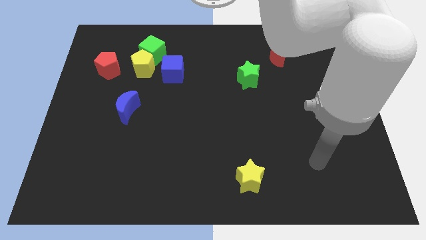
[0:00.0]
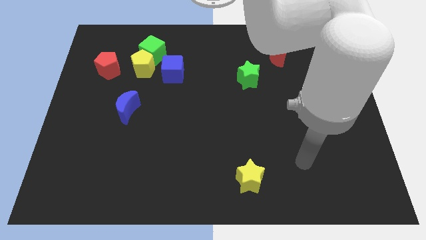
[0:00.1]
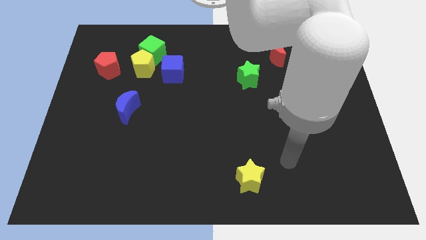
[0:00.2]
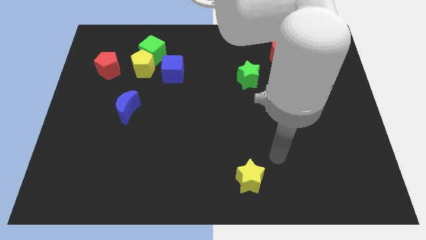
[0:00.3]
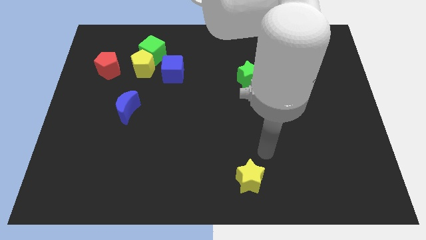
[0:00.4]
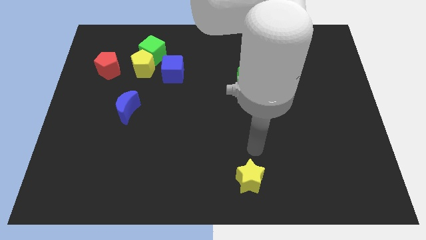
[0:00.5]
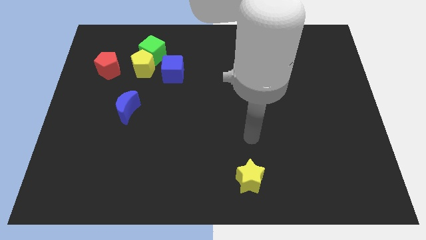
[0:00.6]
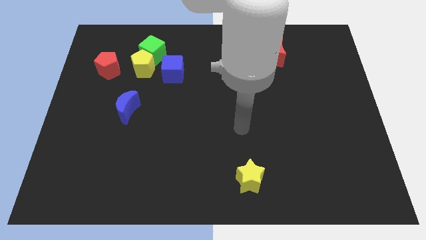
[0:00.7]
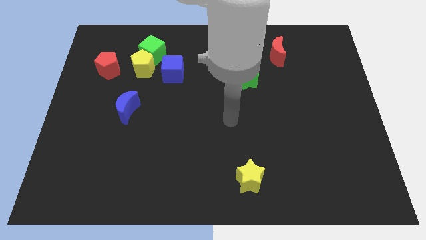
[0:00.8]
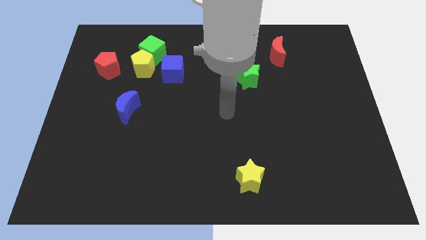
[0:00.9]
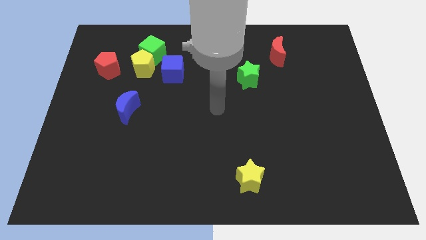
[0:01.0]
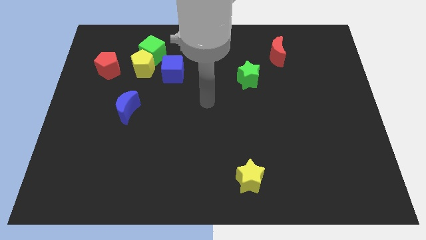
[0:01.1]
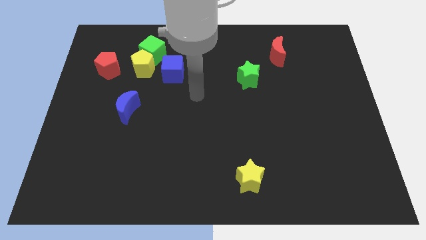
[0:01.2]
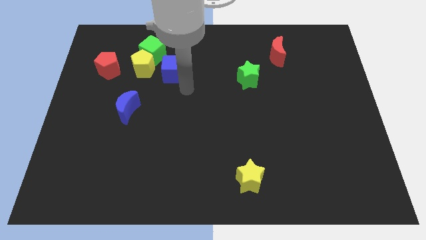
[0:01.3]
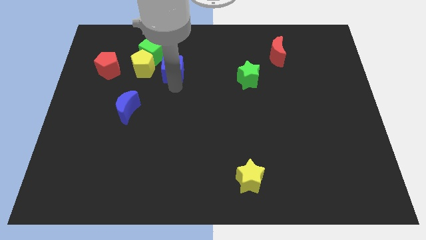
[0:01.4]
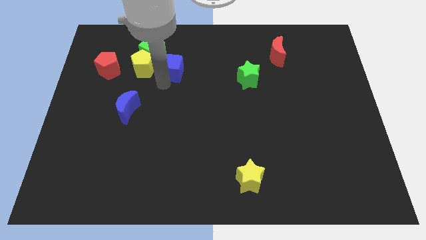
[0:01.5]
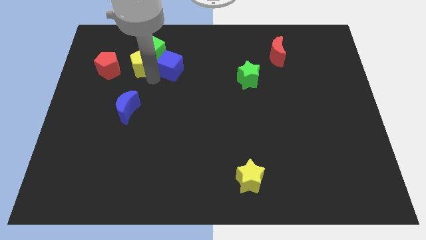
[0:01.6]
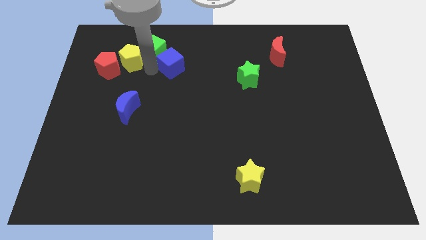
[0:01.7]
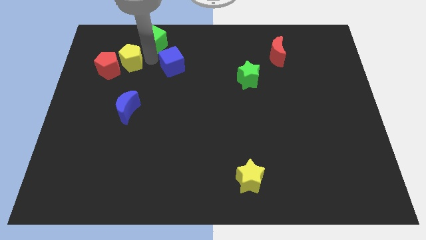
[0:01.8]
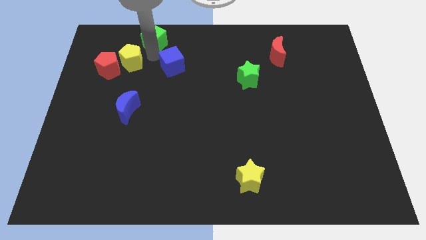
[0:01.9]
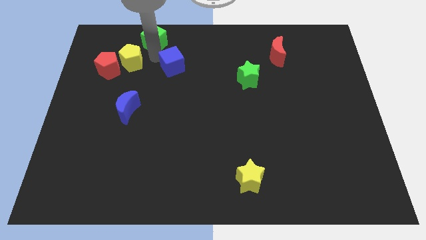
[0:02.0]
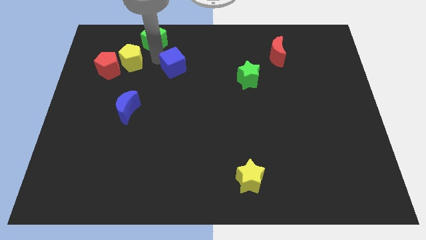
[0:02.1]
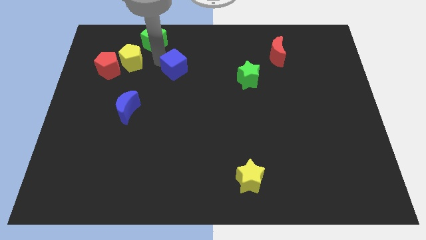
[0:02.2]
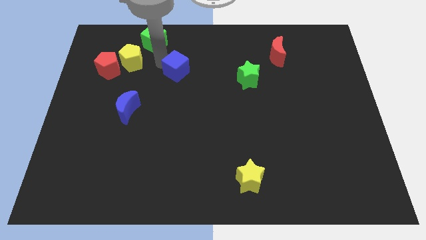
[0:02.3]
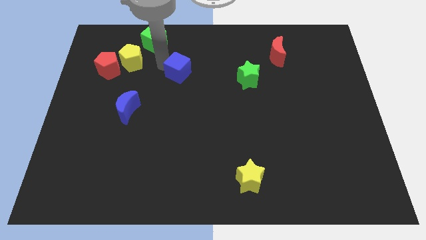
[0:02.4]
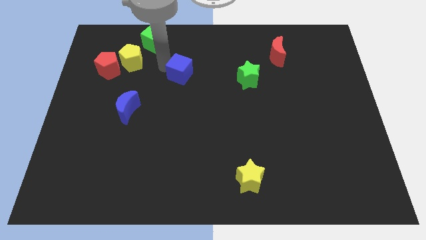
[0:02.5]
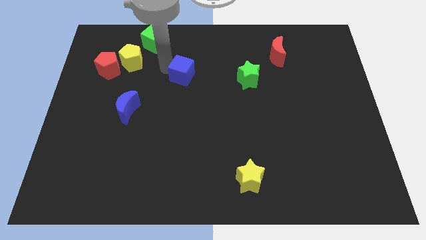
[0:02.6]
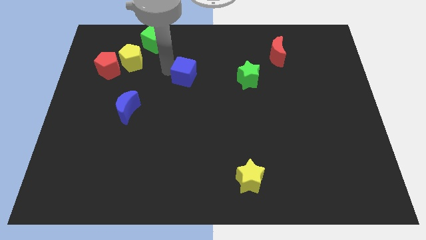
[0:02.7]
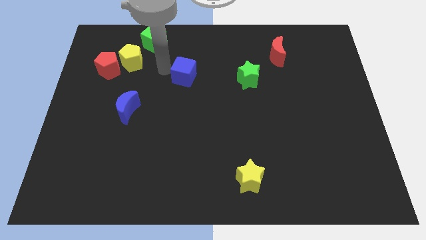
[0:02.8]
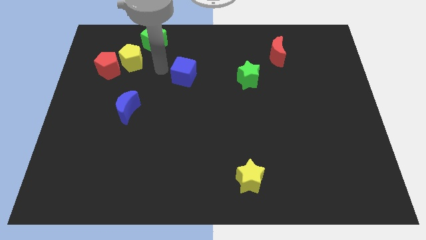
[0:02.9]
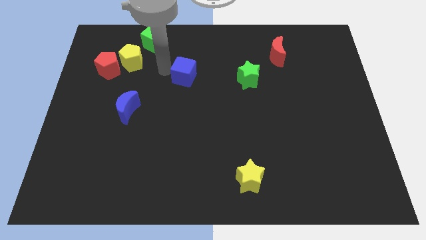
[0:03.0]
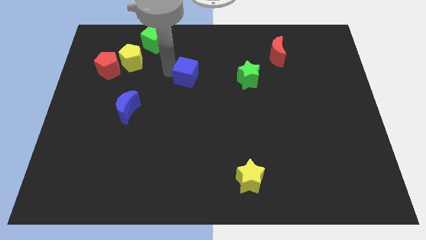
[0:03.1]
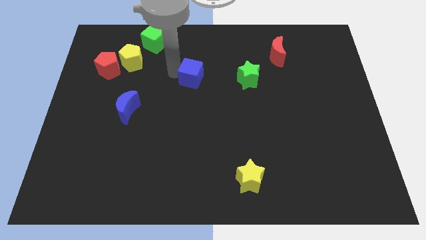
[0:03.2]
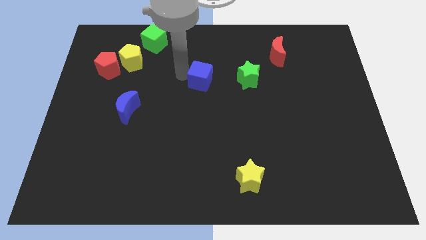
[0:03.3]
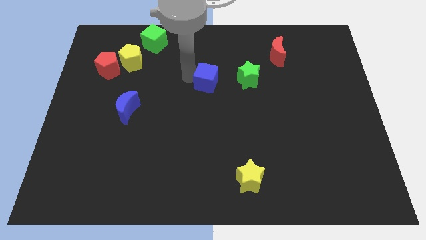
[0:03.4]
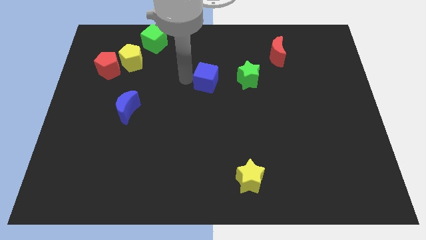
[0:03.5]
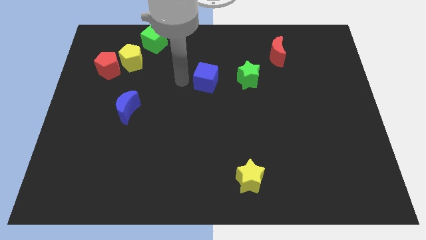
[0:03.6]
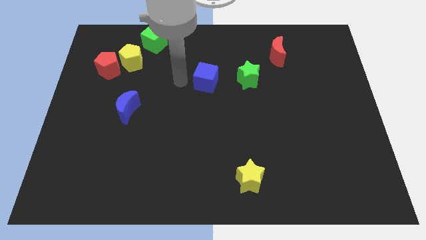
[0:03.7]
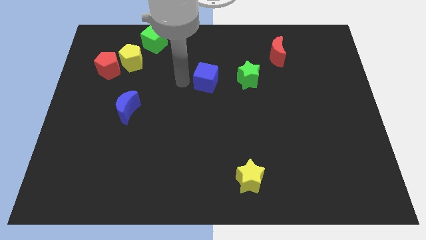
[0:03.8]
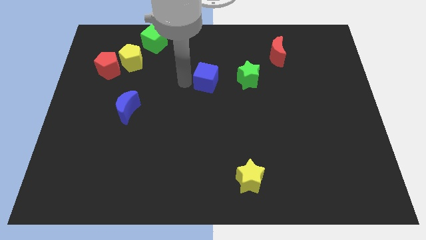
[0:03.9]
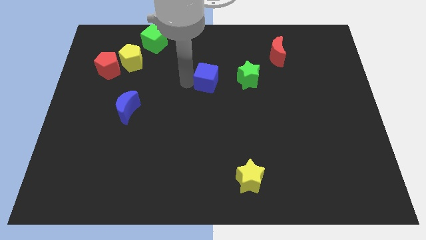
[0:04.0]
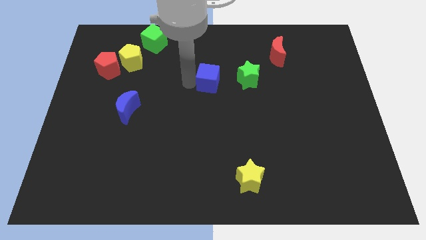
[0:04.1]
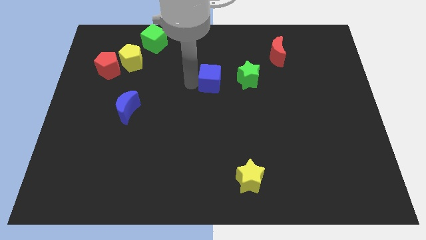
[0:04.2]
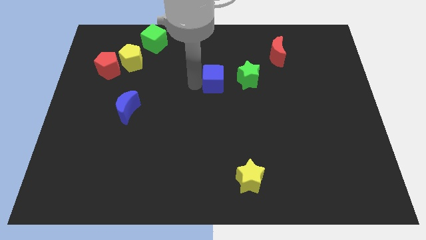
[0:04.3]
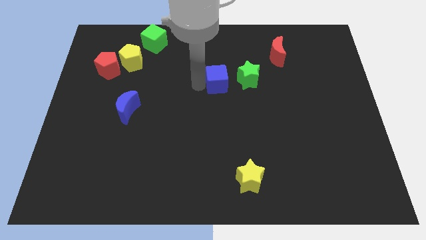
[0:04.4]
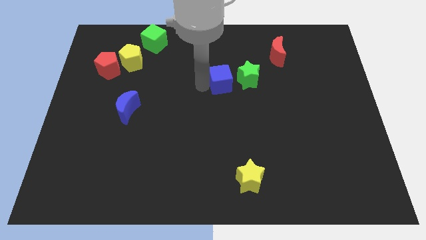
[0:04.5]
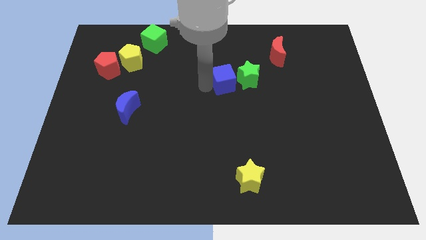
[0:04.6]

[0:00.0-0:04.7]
move the blue cube to the green star

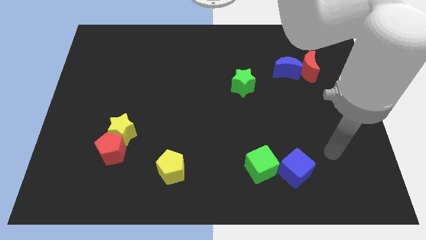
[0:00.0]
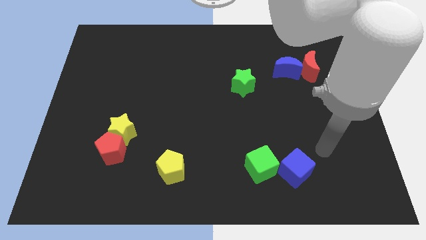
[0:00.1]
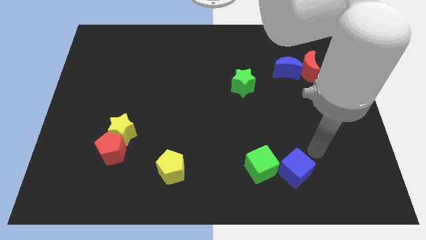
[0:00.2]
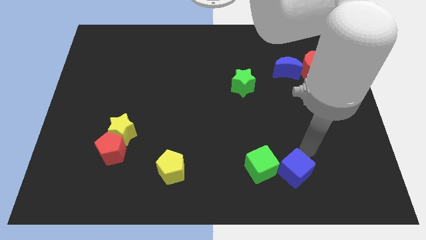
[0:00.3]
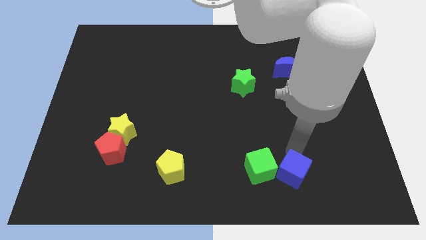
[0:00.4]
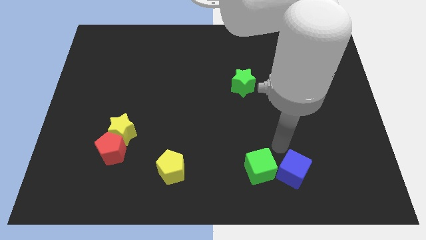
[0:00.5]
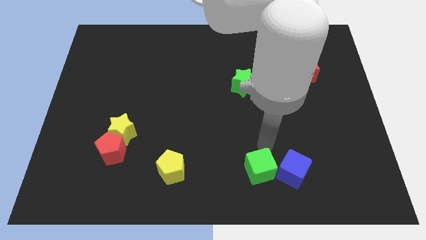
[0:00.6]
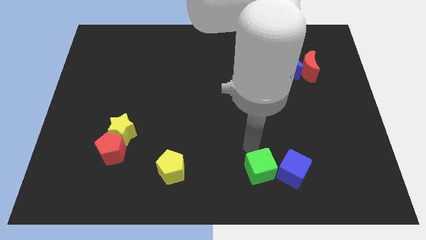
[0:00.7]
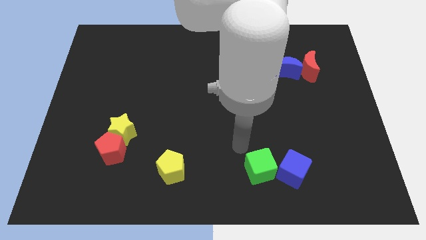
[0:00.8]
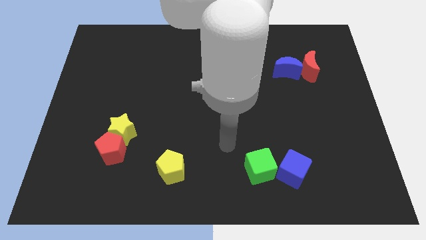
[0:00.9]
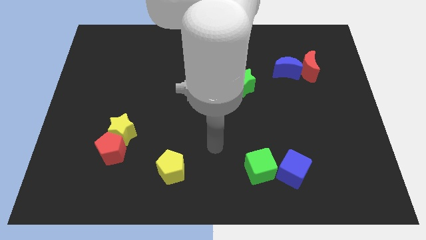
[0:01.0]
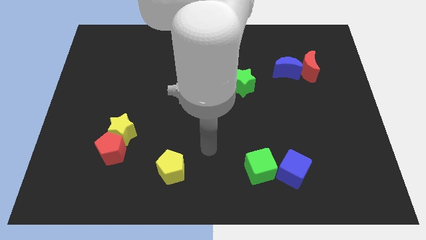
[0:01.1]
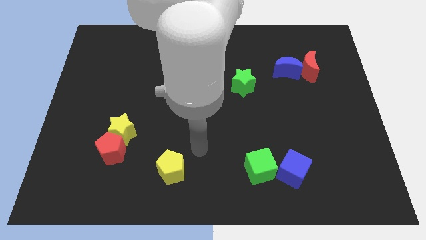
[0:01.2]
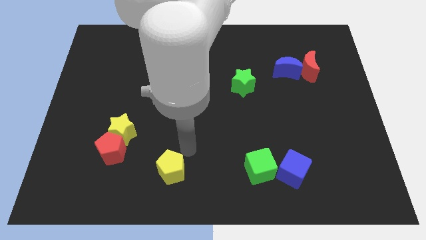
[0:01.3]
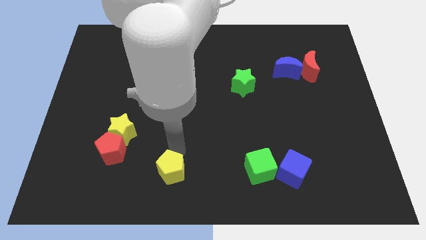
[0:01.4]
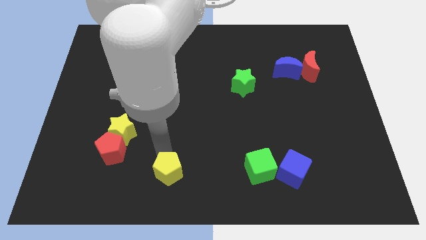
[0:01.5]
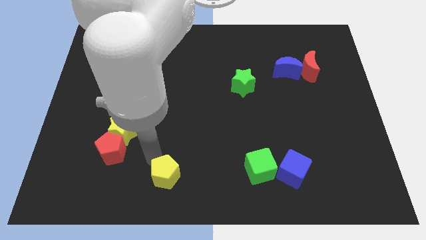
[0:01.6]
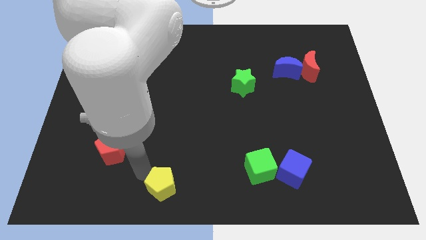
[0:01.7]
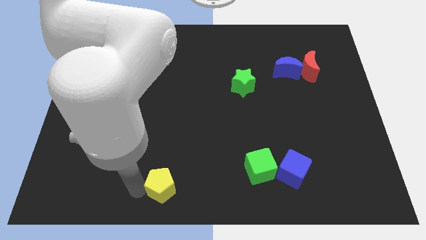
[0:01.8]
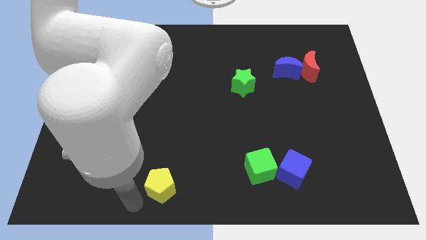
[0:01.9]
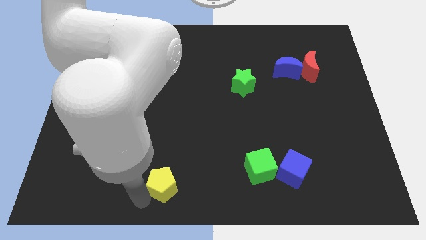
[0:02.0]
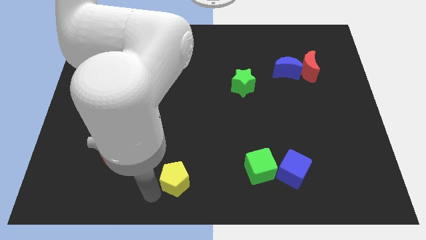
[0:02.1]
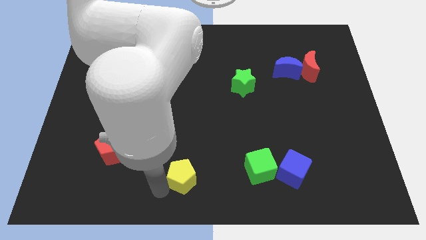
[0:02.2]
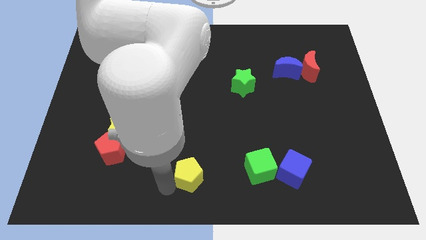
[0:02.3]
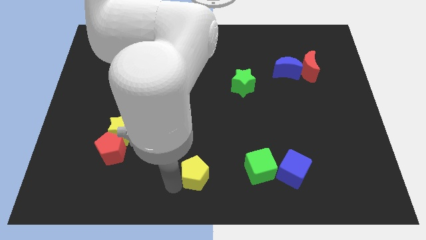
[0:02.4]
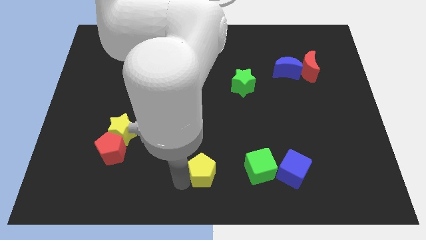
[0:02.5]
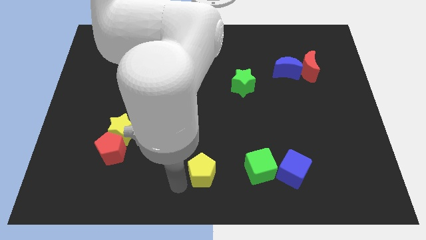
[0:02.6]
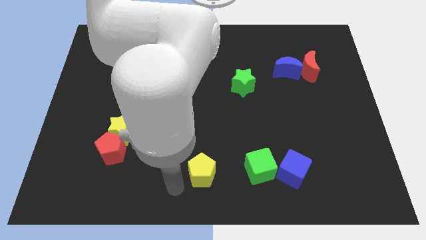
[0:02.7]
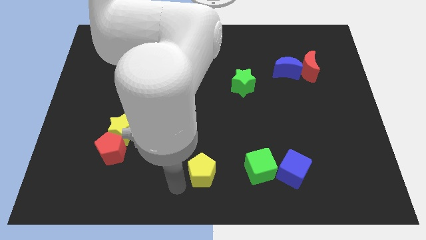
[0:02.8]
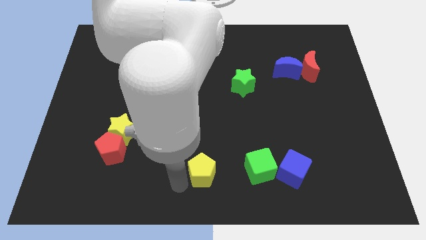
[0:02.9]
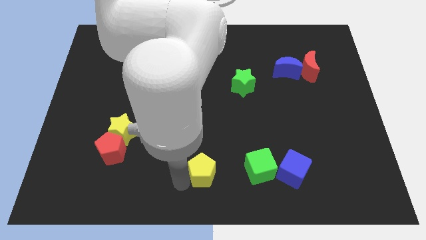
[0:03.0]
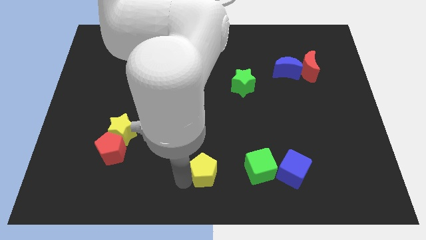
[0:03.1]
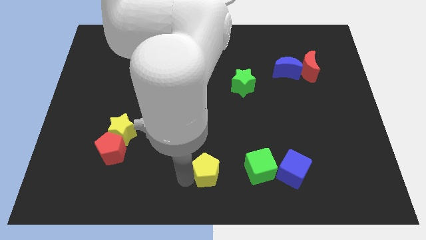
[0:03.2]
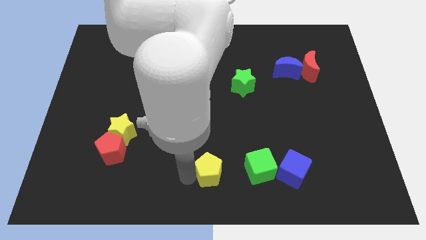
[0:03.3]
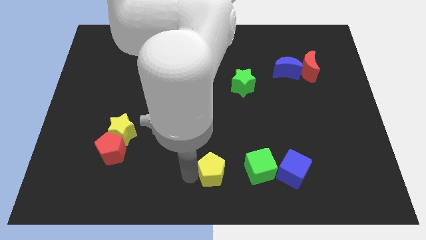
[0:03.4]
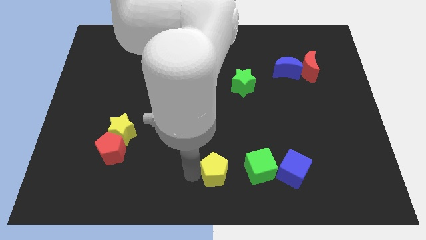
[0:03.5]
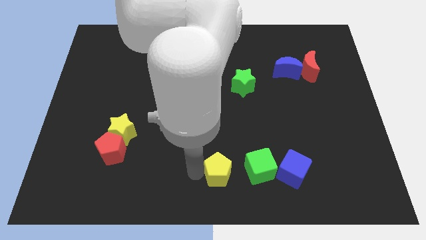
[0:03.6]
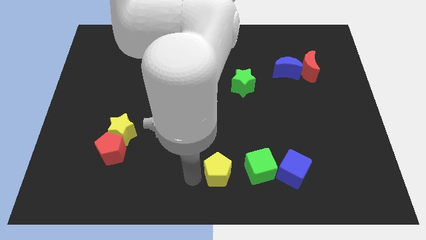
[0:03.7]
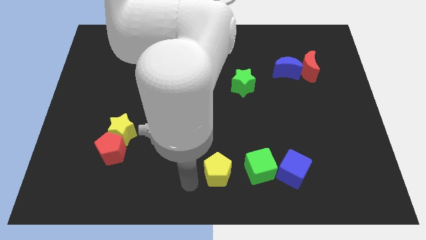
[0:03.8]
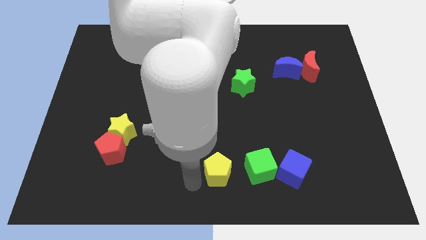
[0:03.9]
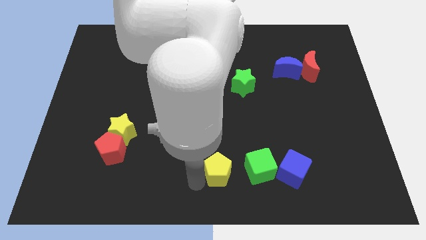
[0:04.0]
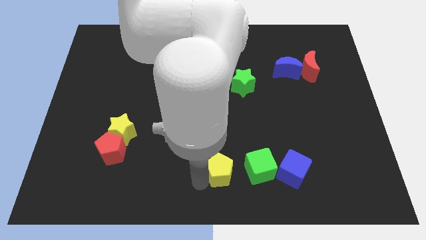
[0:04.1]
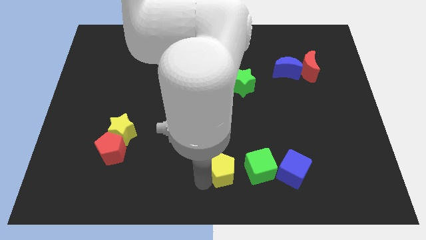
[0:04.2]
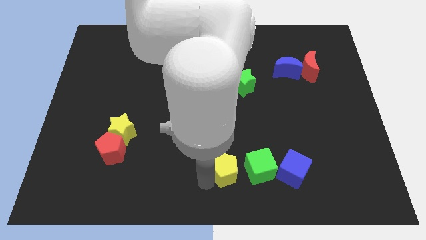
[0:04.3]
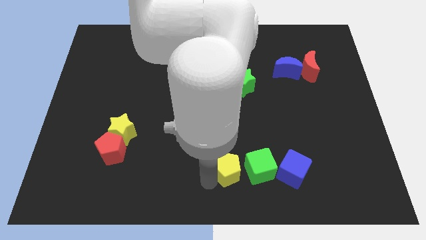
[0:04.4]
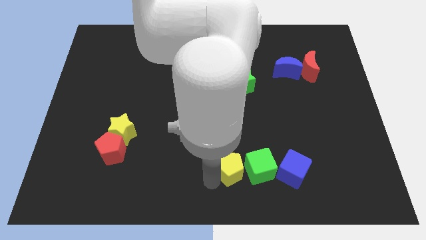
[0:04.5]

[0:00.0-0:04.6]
push the yellow pentagon next to the green cube
